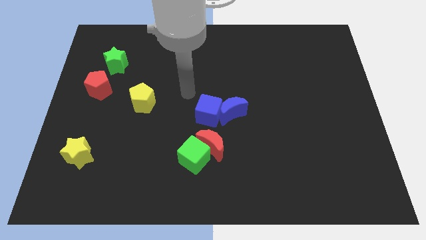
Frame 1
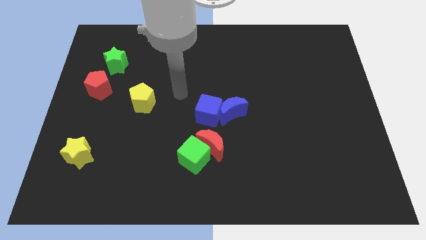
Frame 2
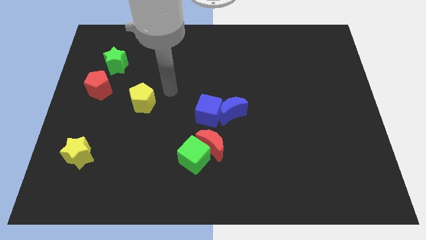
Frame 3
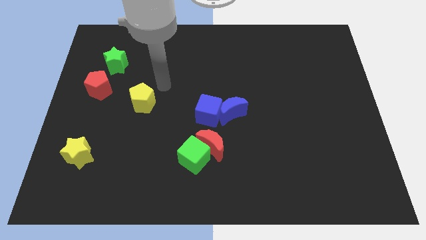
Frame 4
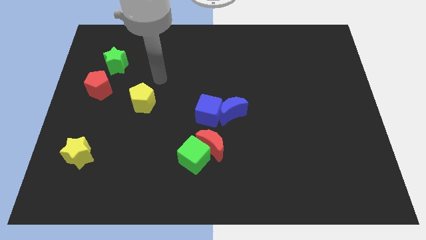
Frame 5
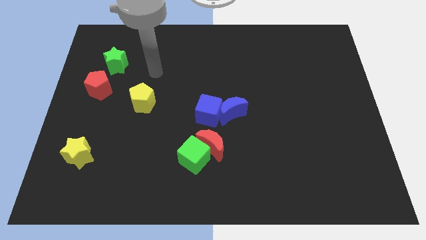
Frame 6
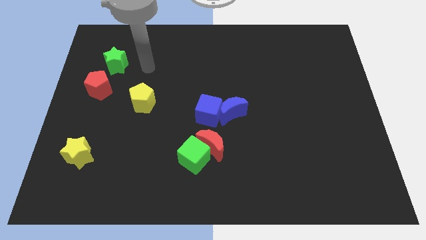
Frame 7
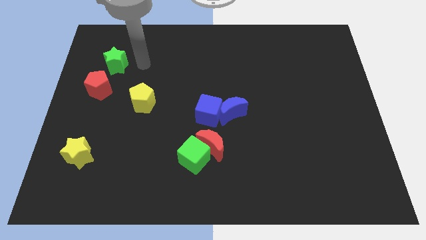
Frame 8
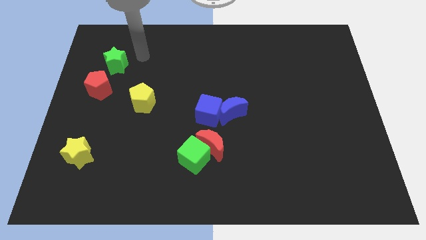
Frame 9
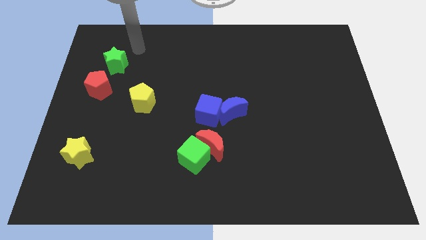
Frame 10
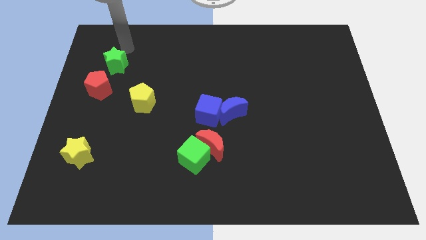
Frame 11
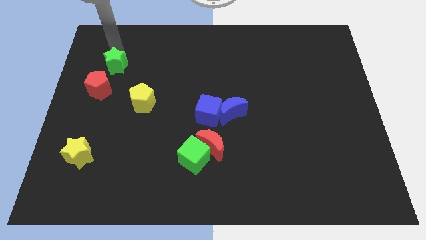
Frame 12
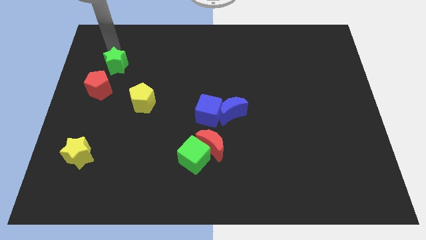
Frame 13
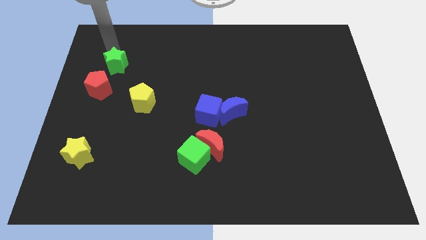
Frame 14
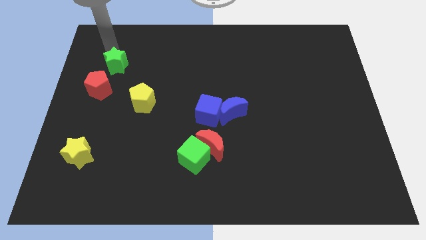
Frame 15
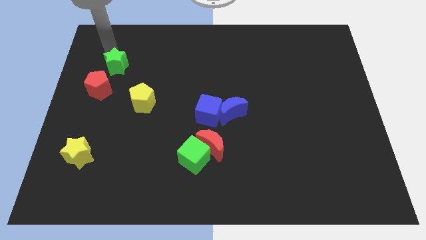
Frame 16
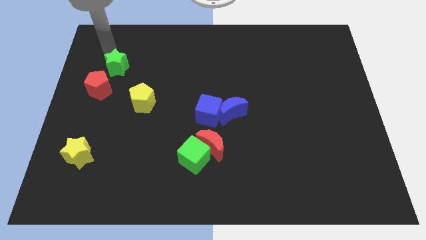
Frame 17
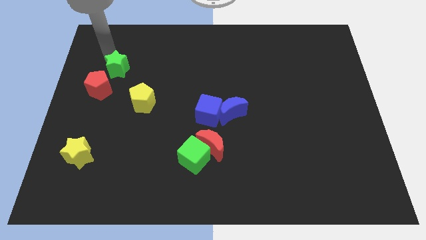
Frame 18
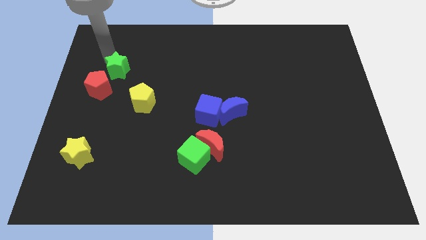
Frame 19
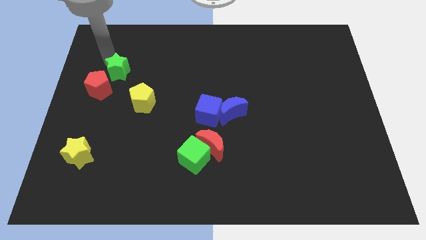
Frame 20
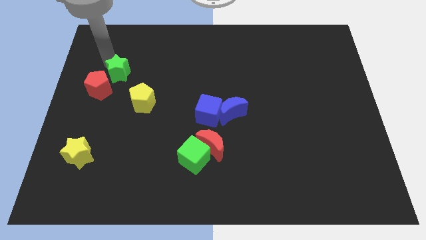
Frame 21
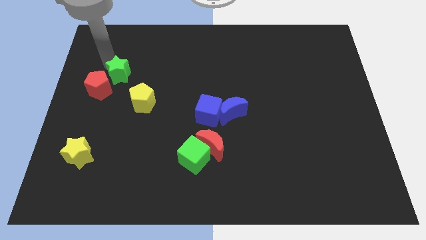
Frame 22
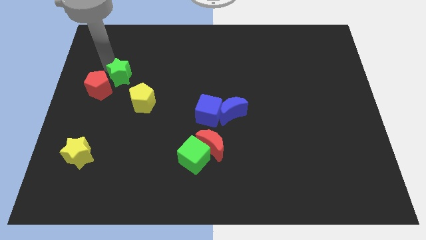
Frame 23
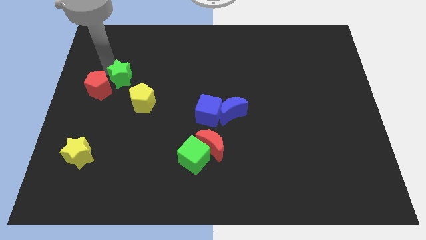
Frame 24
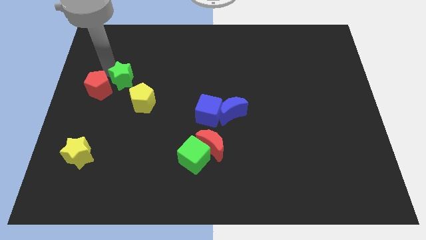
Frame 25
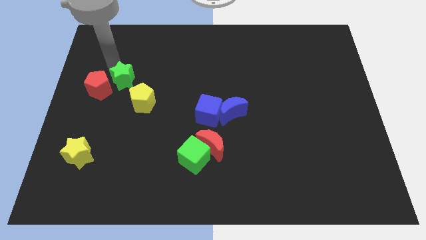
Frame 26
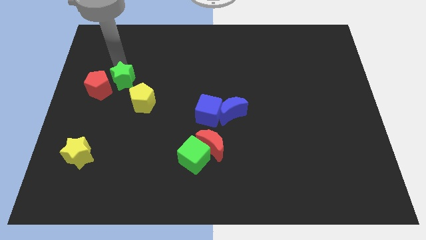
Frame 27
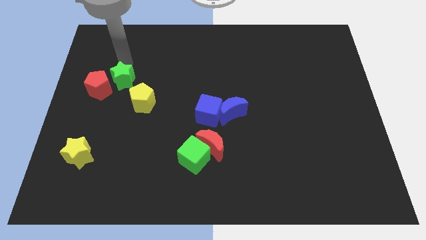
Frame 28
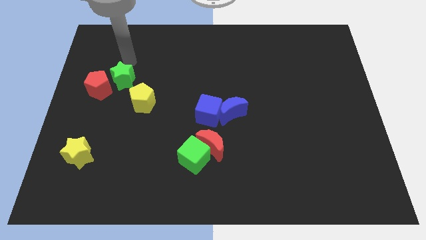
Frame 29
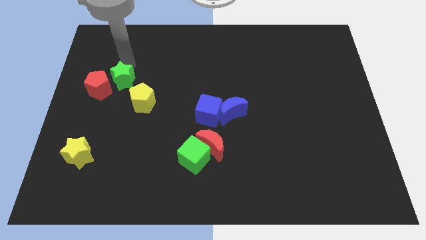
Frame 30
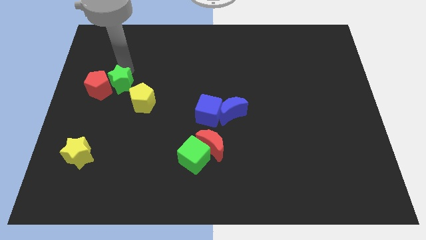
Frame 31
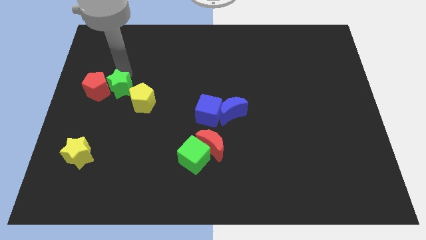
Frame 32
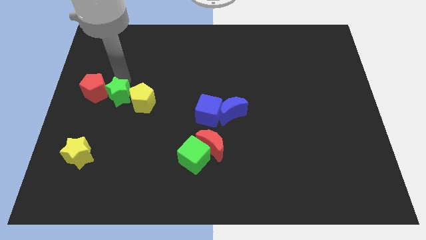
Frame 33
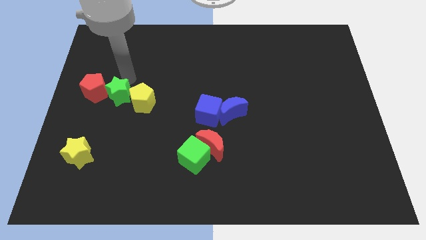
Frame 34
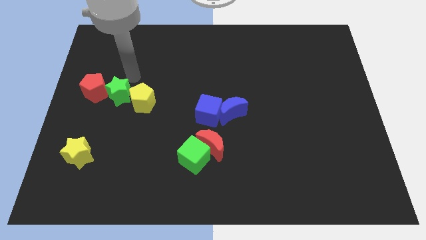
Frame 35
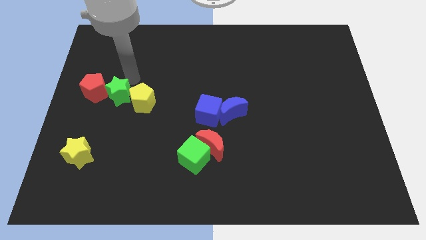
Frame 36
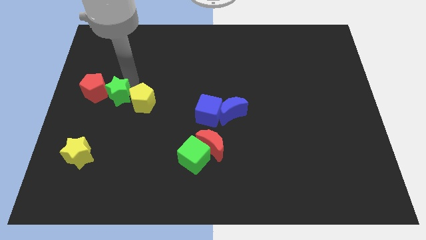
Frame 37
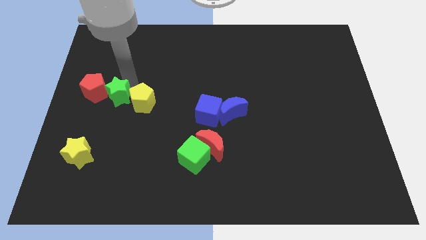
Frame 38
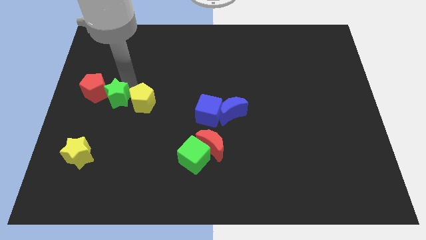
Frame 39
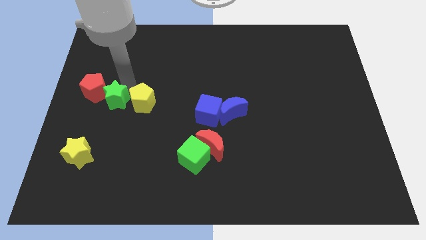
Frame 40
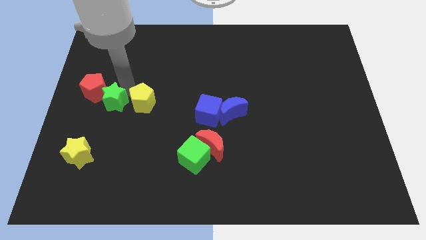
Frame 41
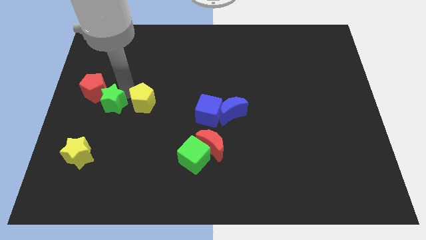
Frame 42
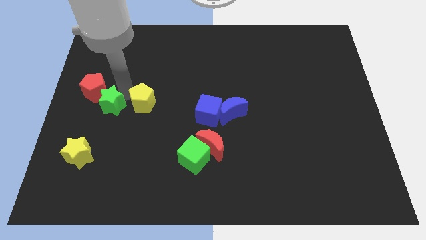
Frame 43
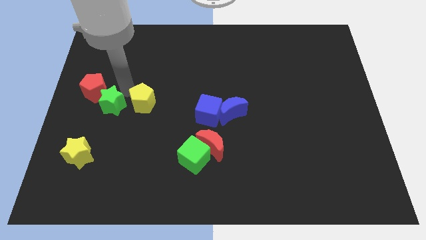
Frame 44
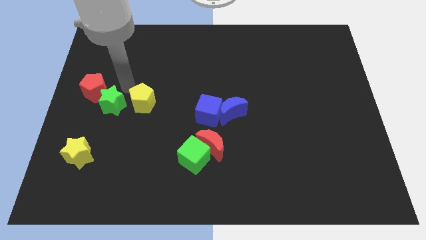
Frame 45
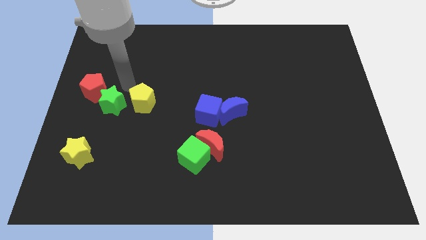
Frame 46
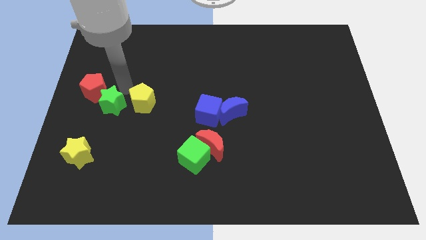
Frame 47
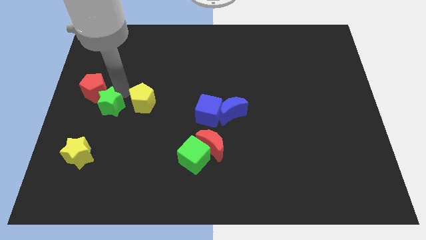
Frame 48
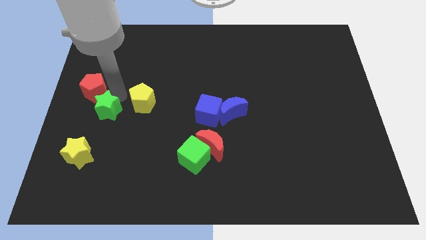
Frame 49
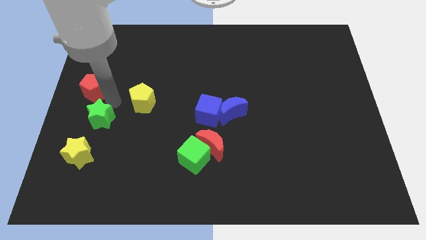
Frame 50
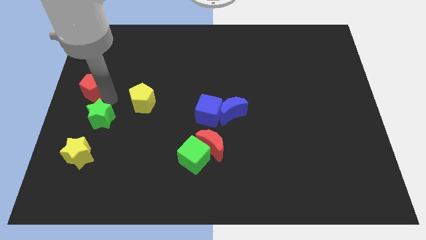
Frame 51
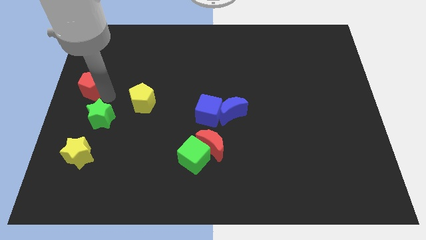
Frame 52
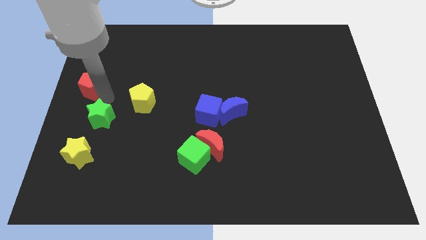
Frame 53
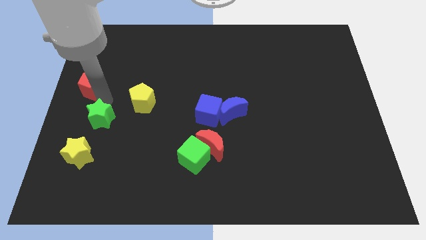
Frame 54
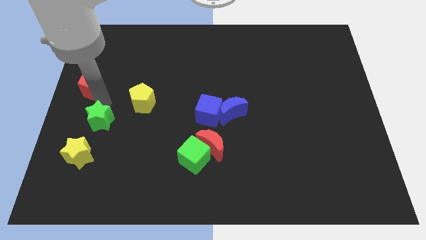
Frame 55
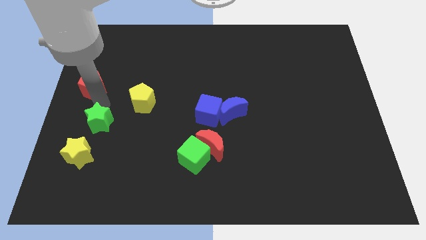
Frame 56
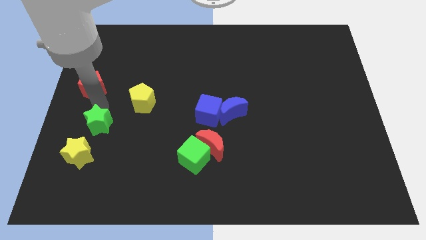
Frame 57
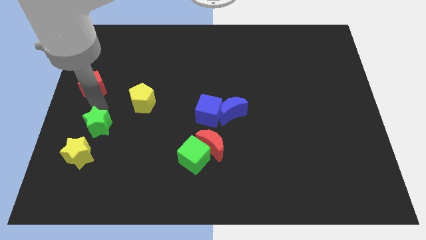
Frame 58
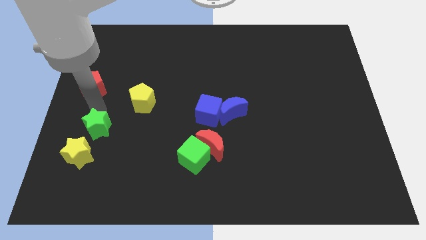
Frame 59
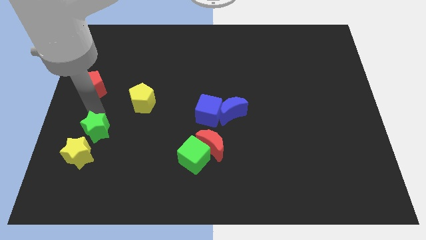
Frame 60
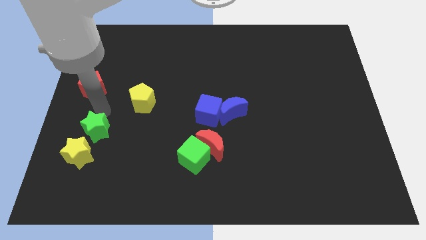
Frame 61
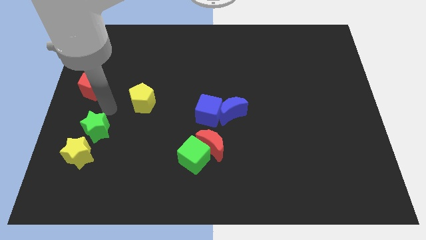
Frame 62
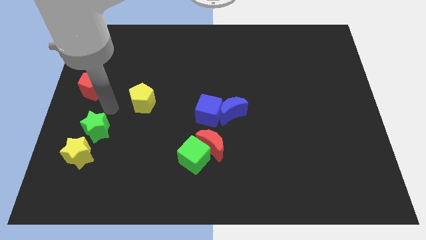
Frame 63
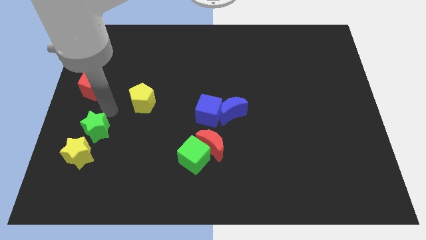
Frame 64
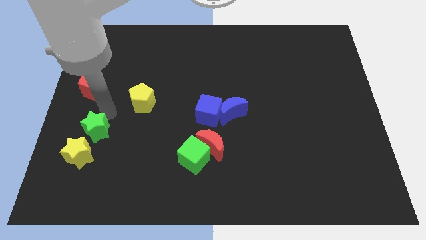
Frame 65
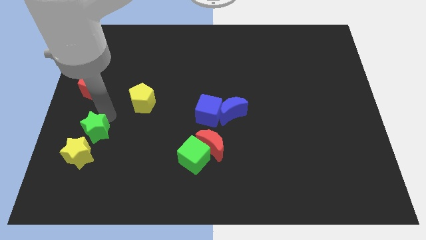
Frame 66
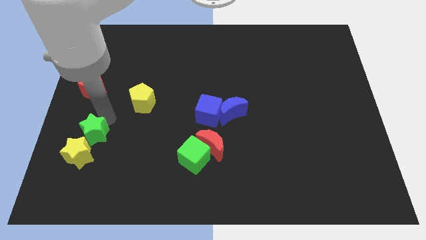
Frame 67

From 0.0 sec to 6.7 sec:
move the green star towards the yellow star
